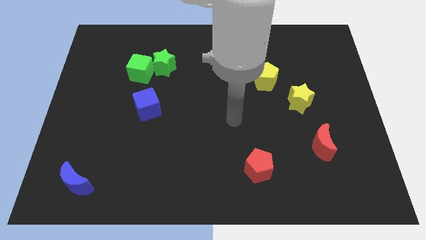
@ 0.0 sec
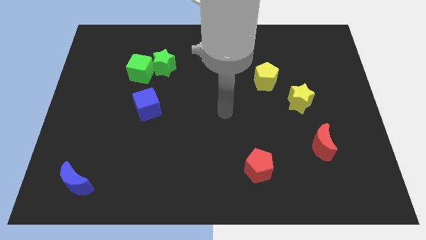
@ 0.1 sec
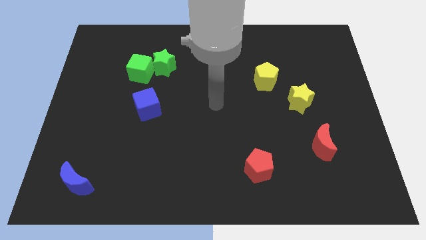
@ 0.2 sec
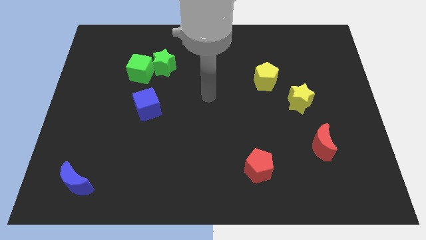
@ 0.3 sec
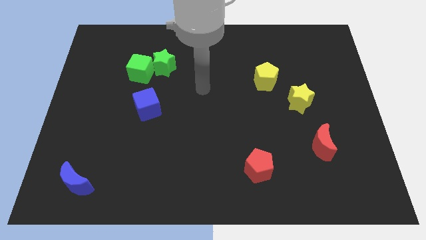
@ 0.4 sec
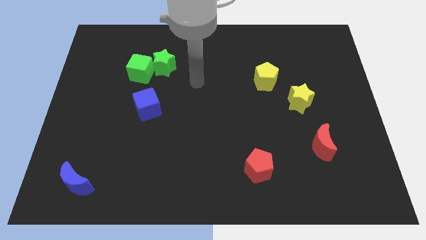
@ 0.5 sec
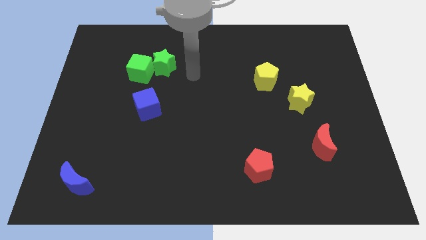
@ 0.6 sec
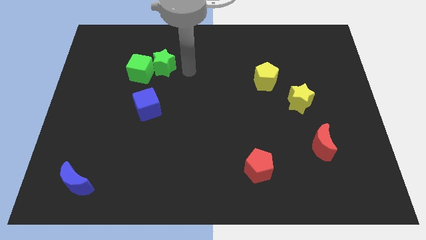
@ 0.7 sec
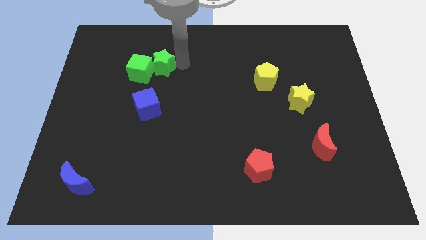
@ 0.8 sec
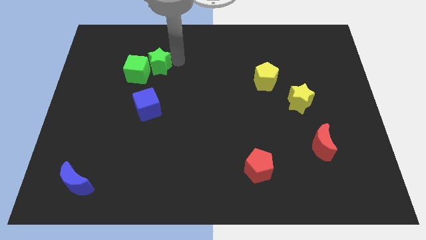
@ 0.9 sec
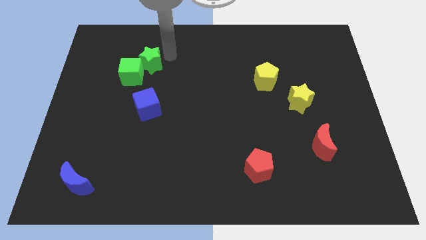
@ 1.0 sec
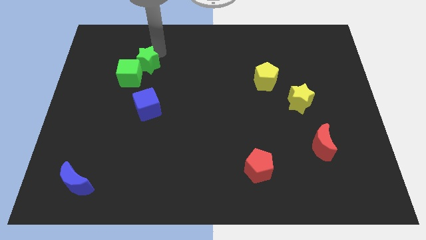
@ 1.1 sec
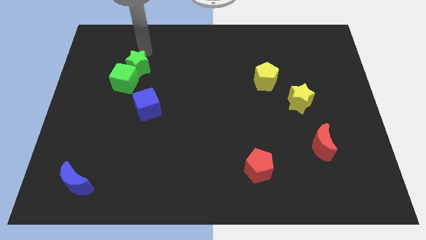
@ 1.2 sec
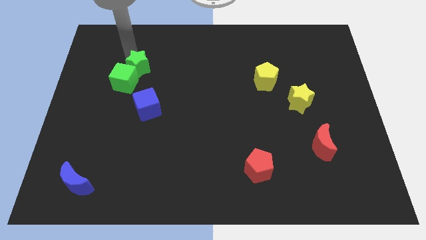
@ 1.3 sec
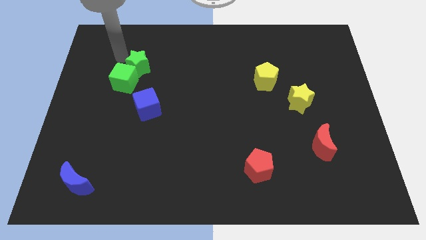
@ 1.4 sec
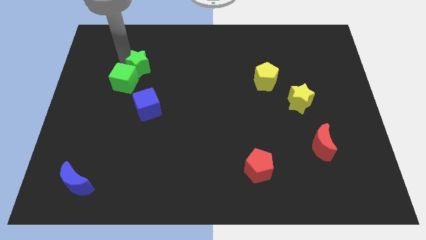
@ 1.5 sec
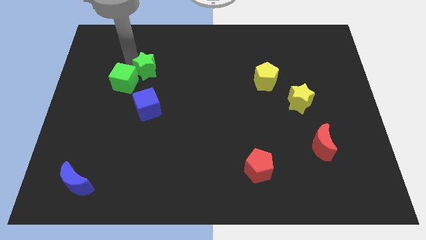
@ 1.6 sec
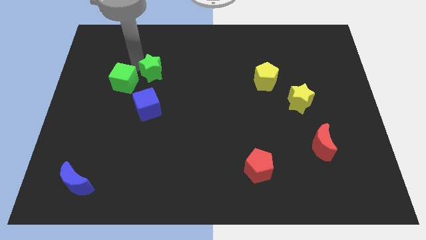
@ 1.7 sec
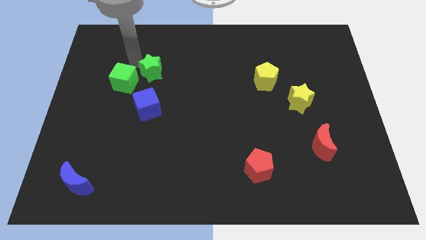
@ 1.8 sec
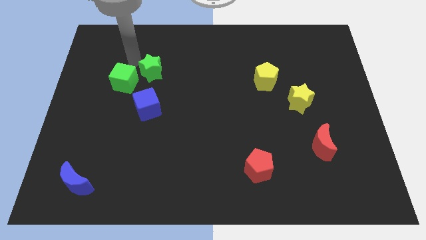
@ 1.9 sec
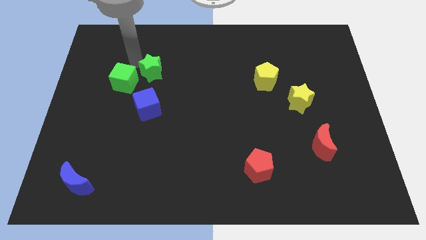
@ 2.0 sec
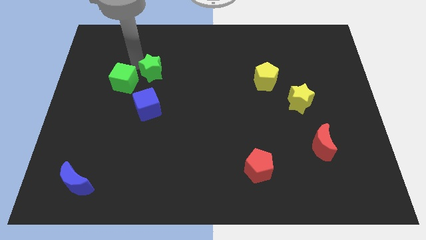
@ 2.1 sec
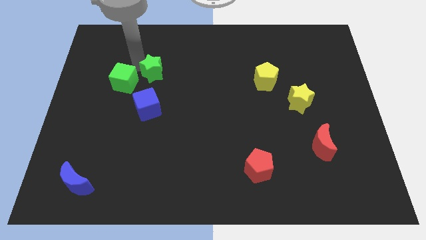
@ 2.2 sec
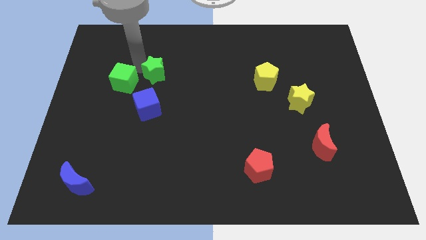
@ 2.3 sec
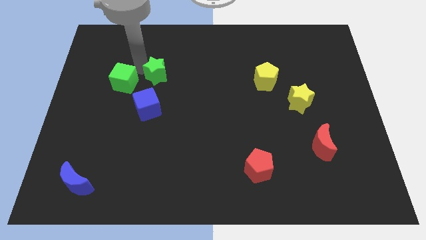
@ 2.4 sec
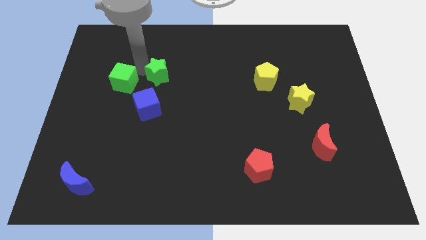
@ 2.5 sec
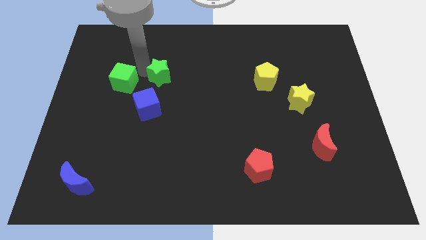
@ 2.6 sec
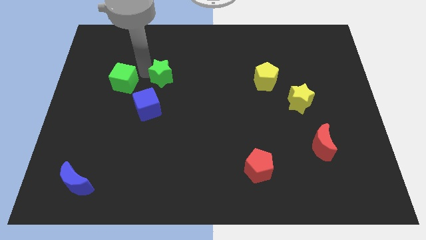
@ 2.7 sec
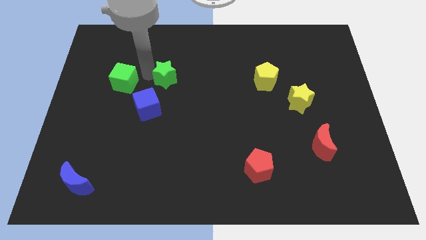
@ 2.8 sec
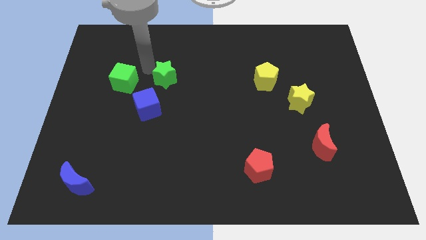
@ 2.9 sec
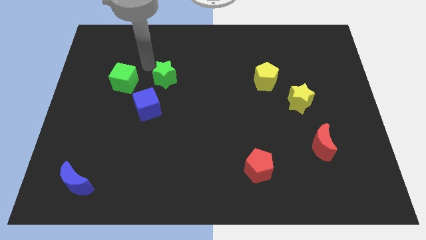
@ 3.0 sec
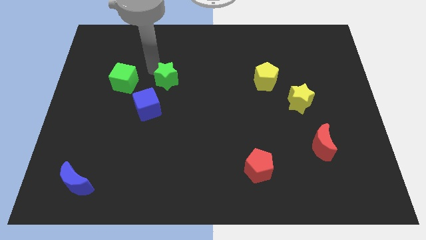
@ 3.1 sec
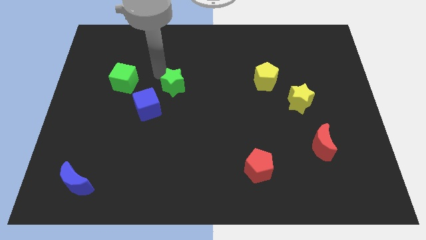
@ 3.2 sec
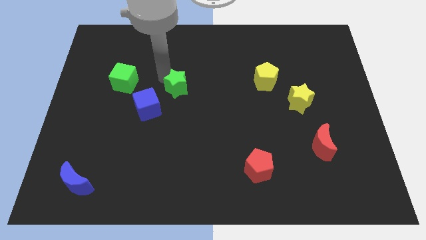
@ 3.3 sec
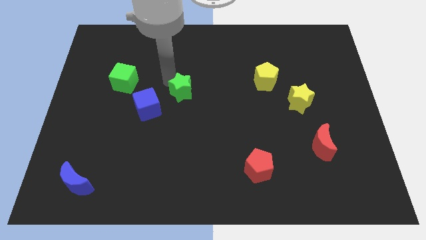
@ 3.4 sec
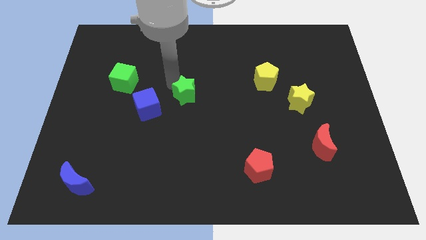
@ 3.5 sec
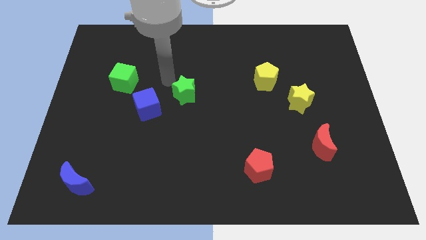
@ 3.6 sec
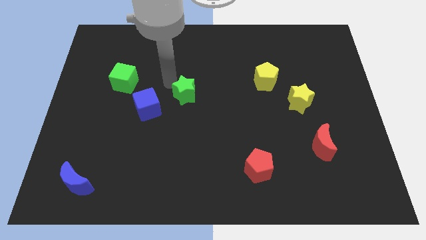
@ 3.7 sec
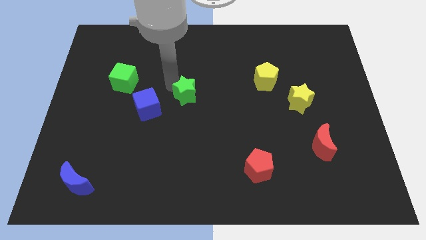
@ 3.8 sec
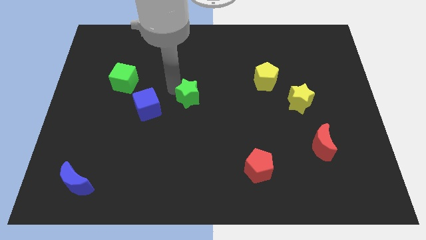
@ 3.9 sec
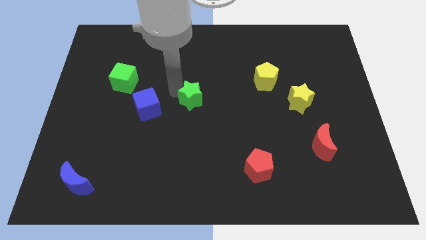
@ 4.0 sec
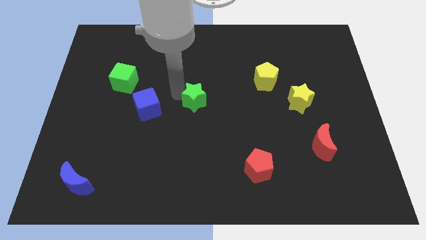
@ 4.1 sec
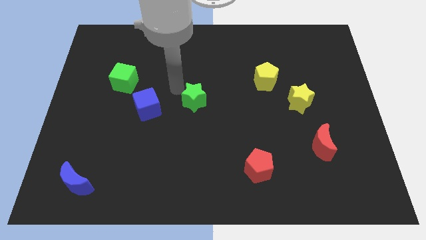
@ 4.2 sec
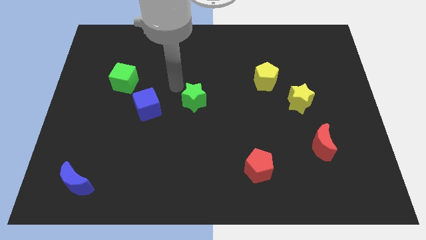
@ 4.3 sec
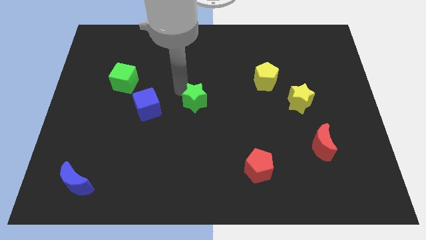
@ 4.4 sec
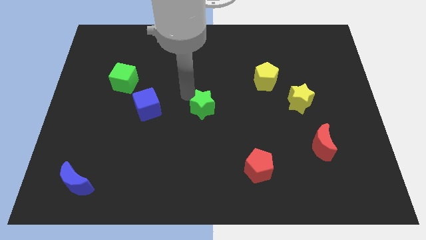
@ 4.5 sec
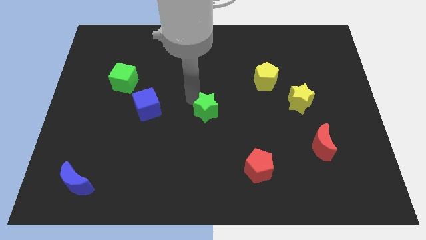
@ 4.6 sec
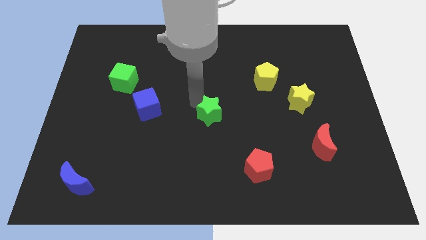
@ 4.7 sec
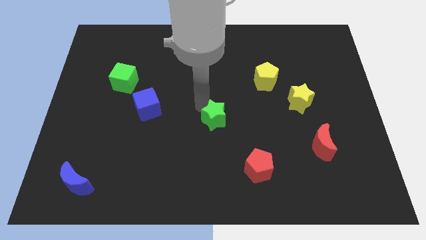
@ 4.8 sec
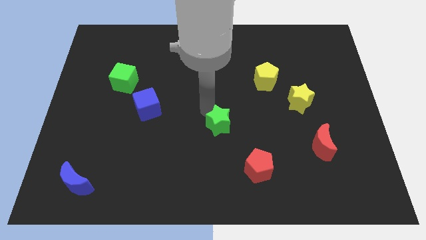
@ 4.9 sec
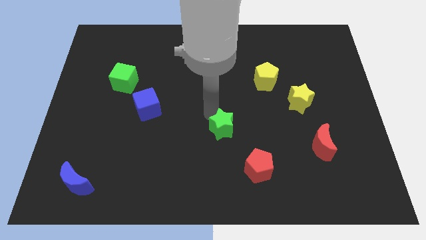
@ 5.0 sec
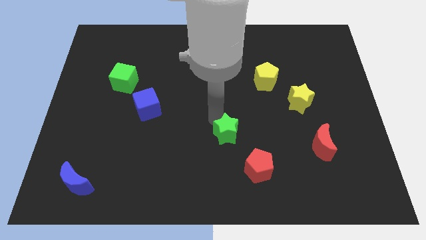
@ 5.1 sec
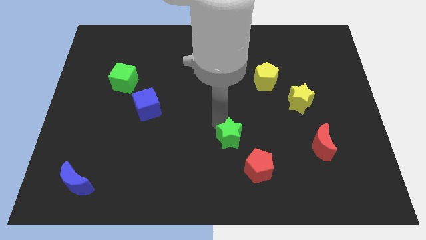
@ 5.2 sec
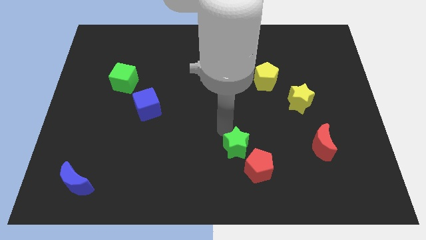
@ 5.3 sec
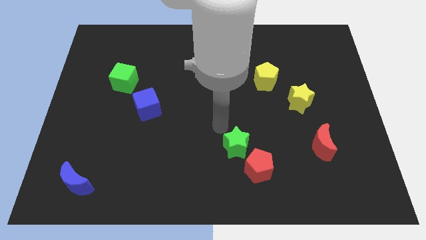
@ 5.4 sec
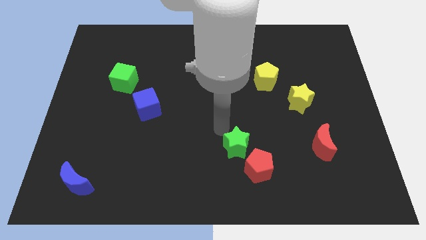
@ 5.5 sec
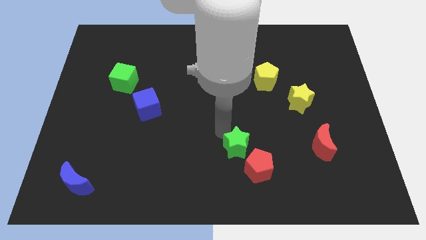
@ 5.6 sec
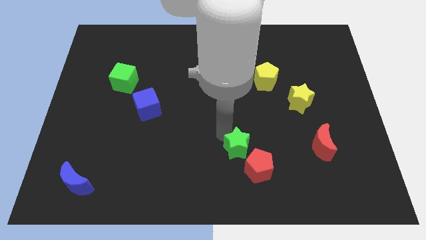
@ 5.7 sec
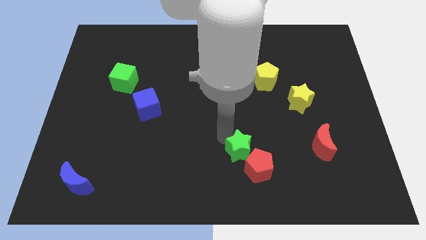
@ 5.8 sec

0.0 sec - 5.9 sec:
slide the green star towards the red pentagon

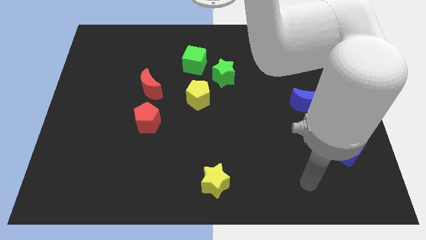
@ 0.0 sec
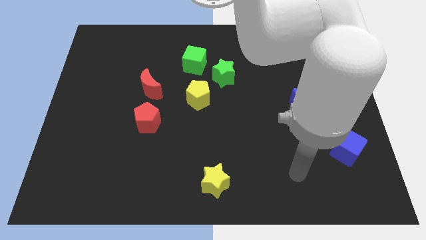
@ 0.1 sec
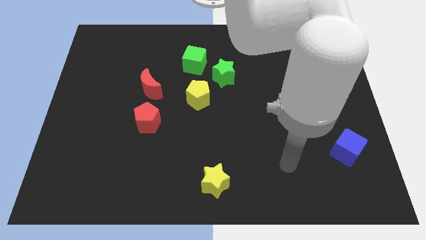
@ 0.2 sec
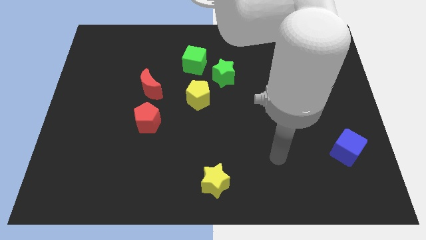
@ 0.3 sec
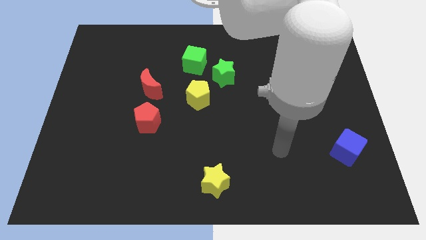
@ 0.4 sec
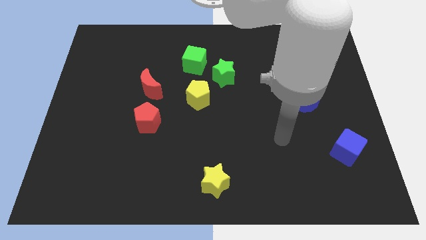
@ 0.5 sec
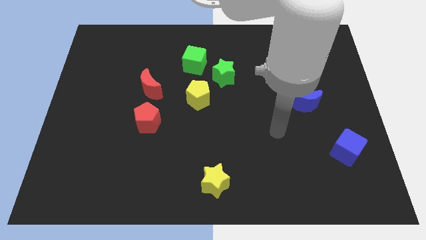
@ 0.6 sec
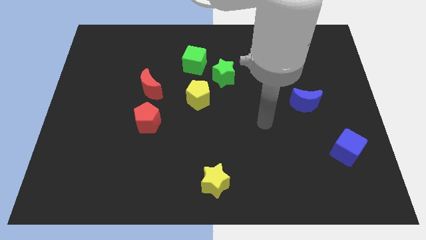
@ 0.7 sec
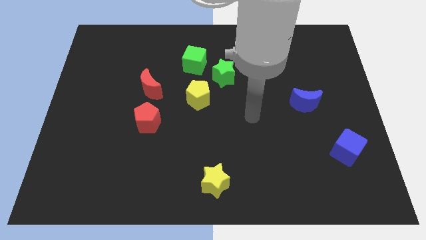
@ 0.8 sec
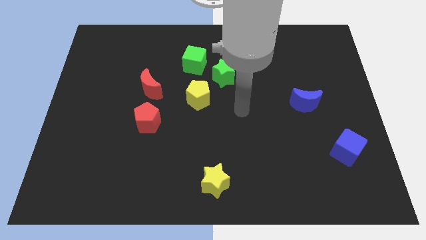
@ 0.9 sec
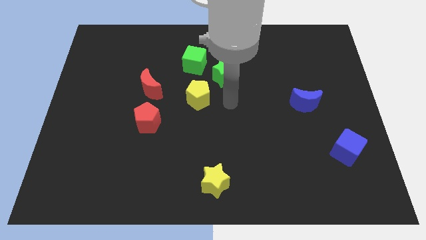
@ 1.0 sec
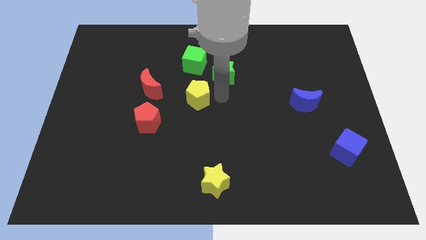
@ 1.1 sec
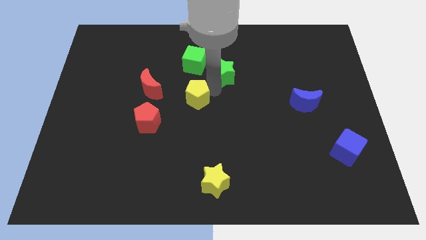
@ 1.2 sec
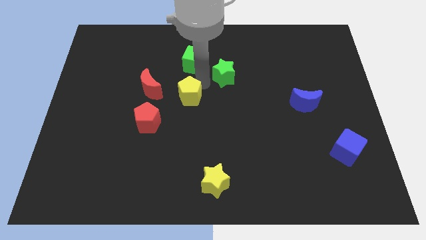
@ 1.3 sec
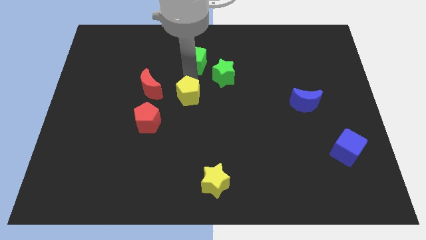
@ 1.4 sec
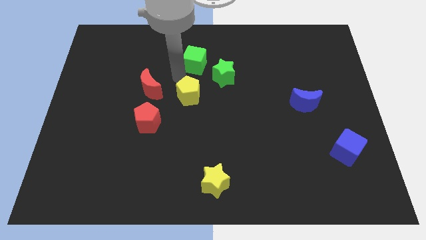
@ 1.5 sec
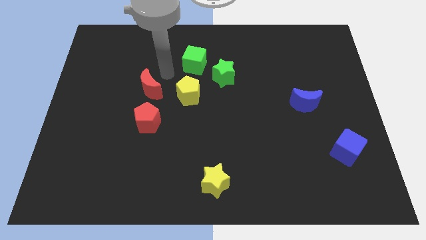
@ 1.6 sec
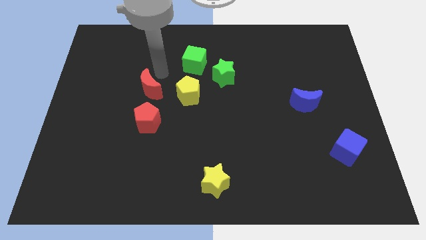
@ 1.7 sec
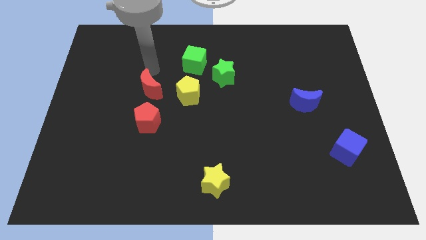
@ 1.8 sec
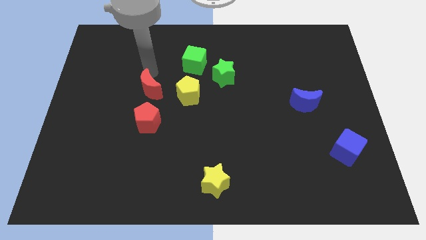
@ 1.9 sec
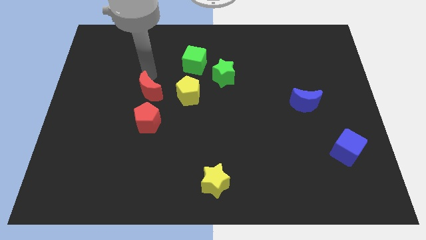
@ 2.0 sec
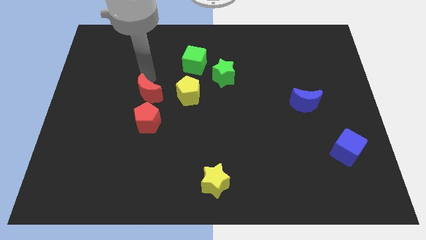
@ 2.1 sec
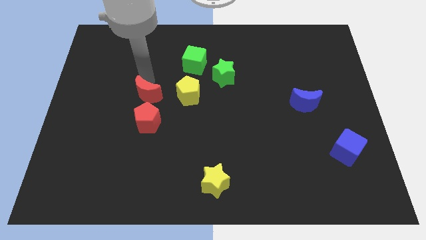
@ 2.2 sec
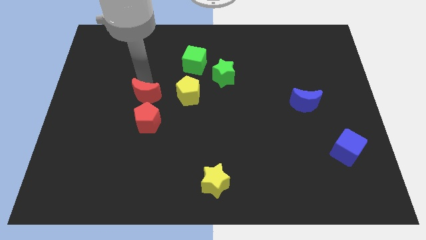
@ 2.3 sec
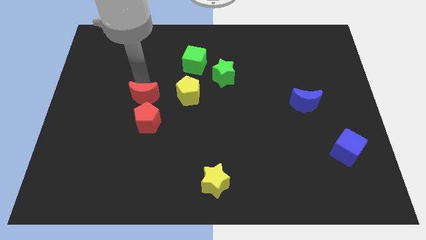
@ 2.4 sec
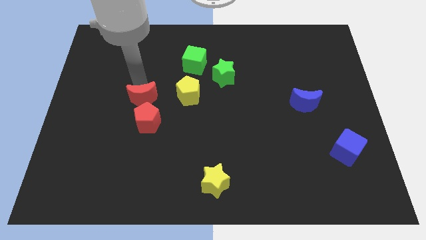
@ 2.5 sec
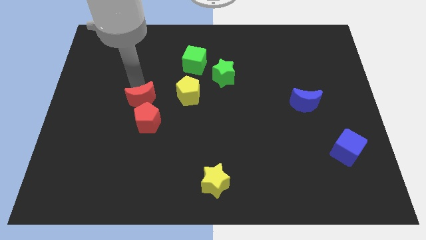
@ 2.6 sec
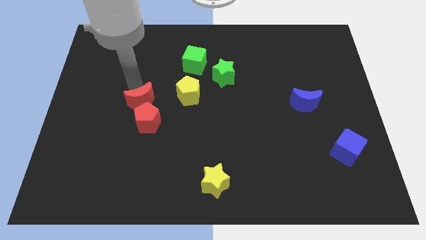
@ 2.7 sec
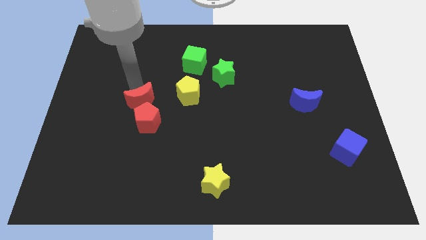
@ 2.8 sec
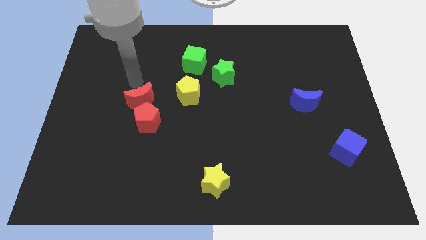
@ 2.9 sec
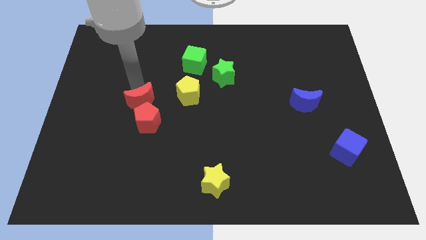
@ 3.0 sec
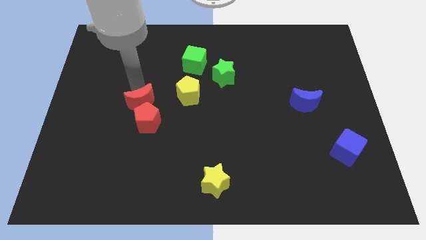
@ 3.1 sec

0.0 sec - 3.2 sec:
put the red moon towards the red pentagon
